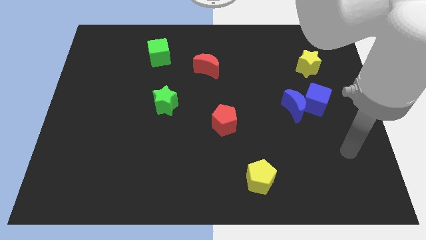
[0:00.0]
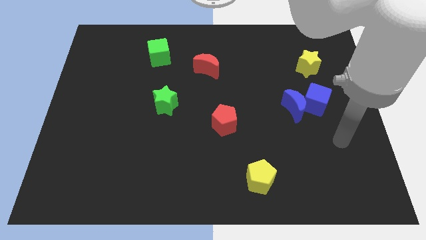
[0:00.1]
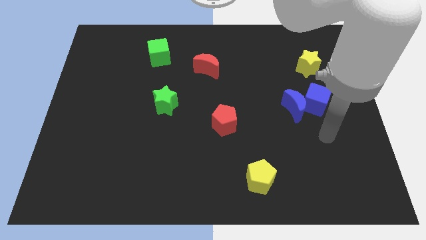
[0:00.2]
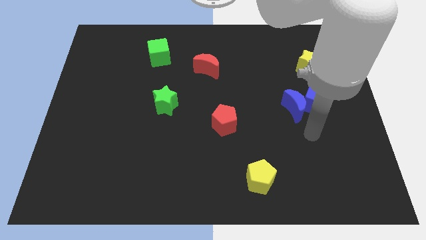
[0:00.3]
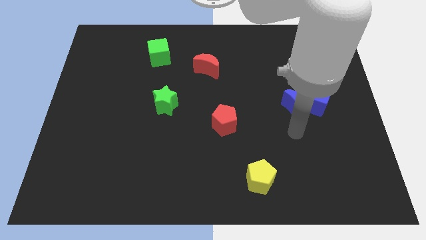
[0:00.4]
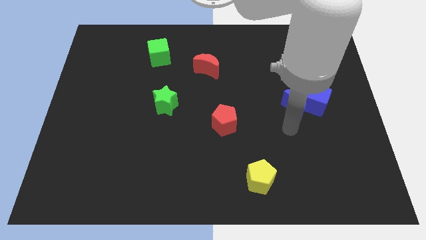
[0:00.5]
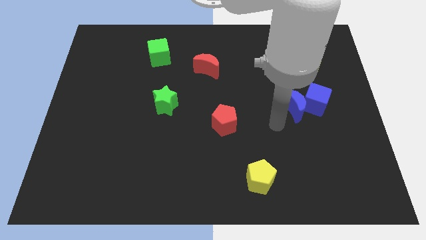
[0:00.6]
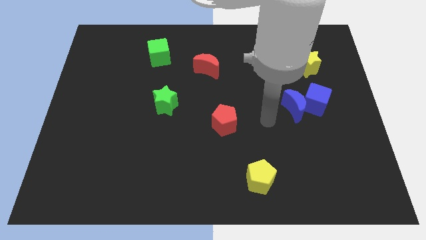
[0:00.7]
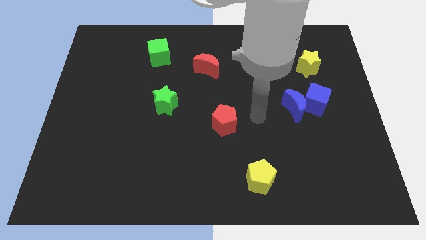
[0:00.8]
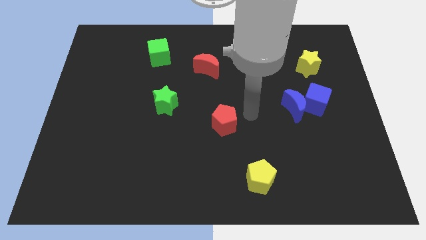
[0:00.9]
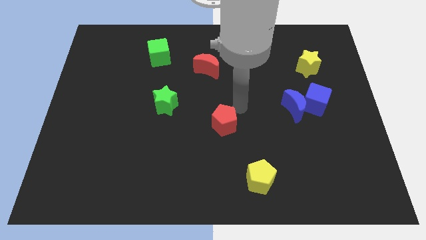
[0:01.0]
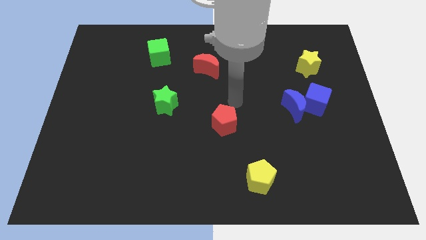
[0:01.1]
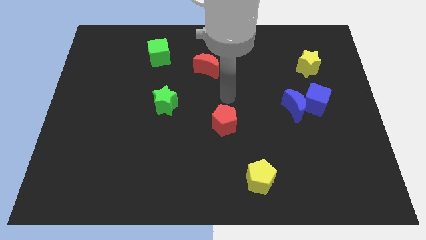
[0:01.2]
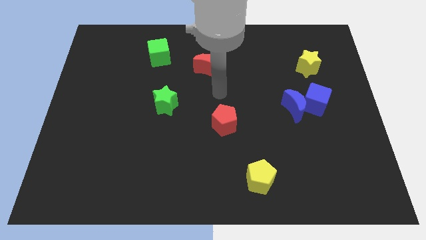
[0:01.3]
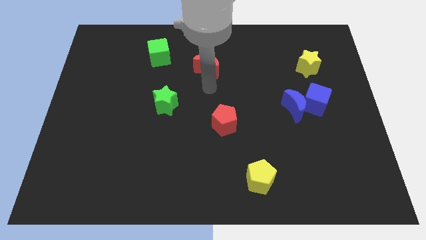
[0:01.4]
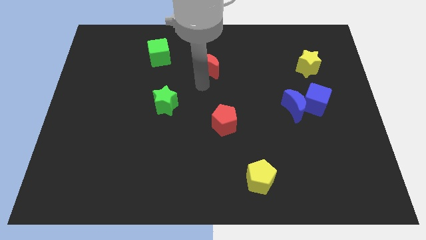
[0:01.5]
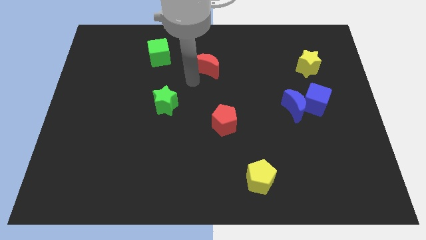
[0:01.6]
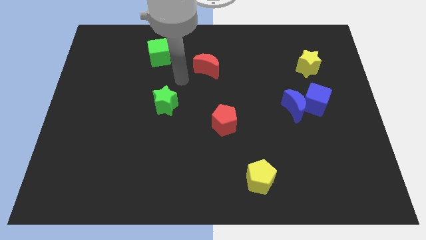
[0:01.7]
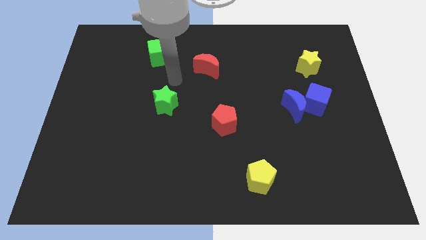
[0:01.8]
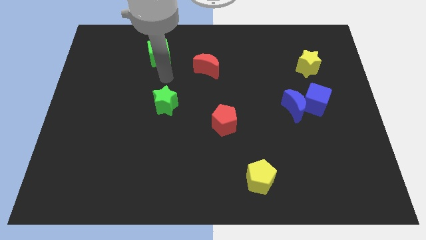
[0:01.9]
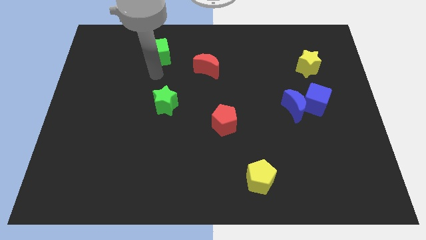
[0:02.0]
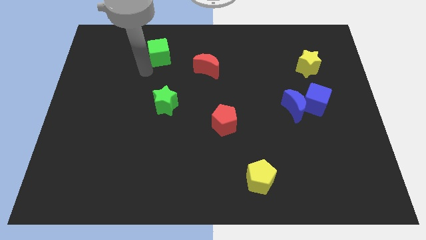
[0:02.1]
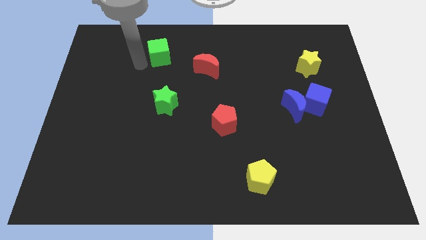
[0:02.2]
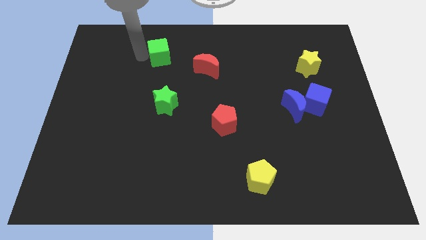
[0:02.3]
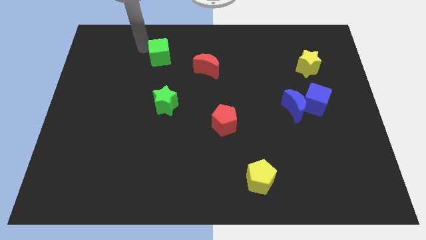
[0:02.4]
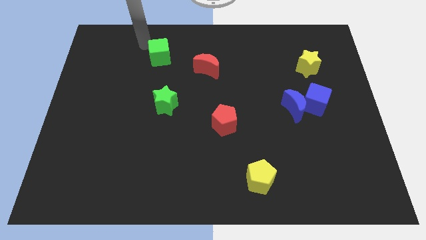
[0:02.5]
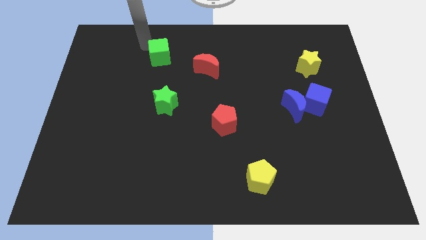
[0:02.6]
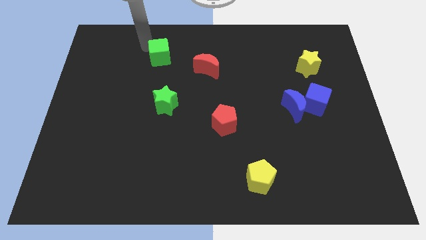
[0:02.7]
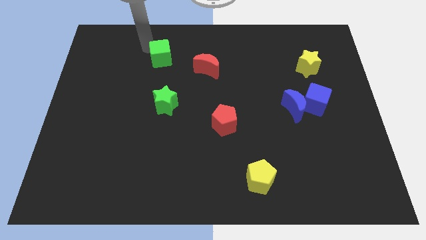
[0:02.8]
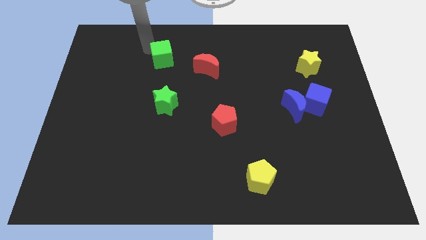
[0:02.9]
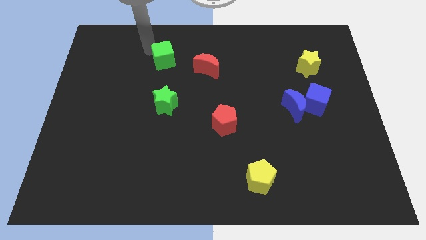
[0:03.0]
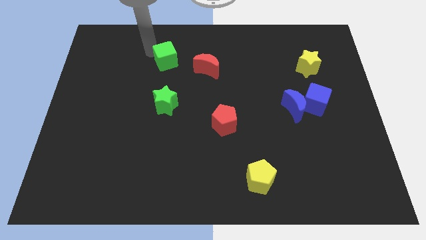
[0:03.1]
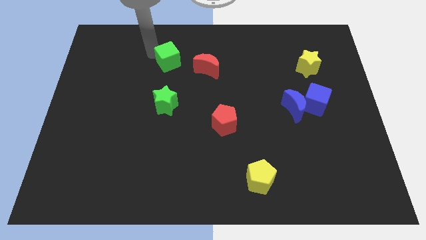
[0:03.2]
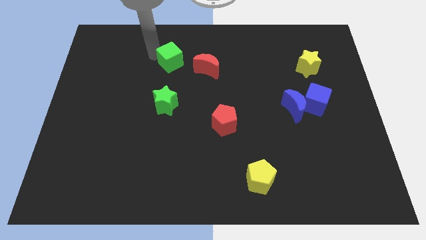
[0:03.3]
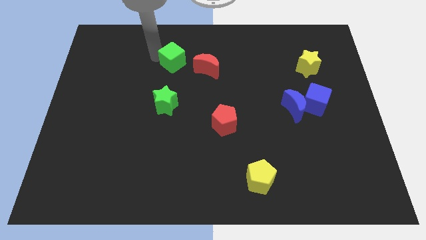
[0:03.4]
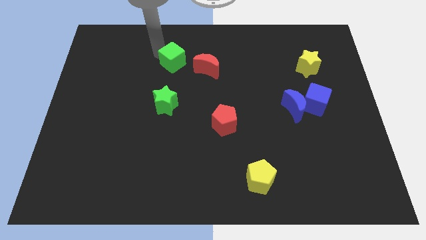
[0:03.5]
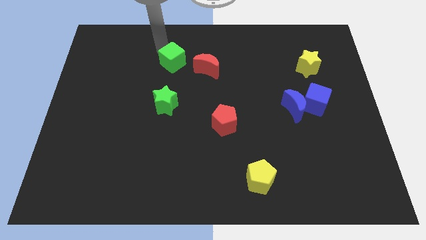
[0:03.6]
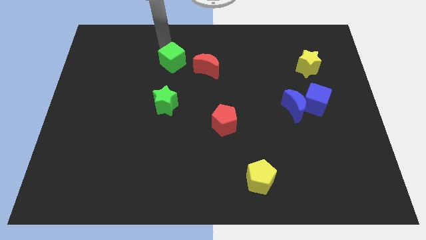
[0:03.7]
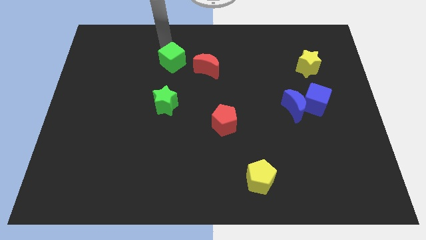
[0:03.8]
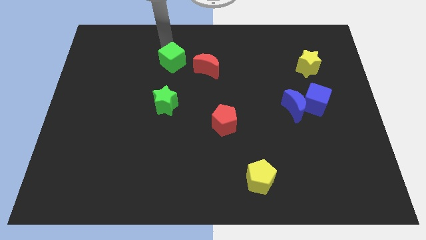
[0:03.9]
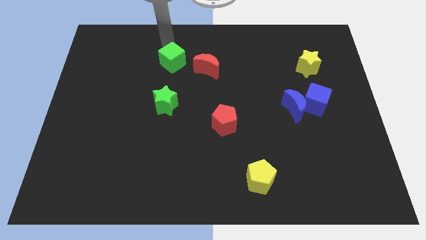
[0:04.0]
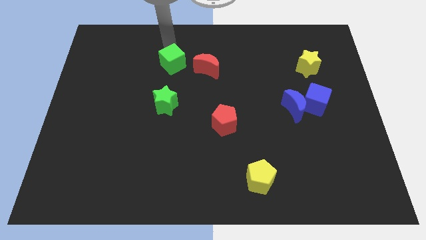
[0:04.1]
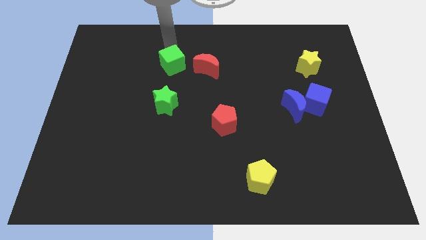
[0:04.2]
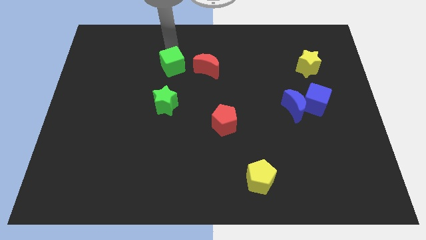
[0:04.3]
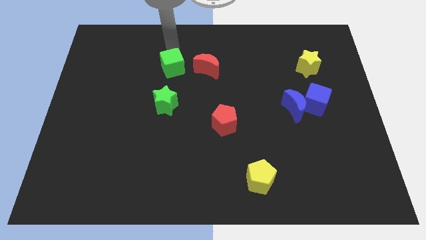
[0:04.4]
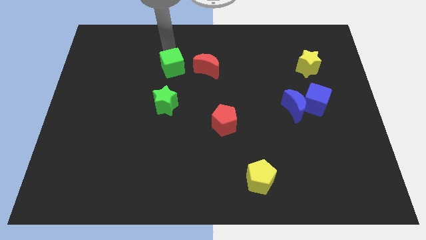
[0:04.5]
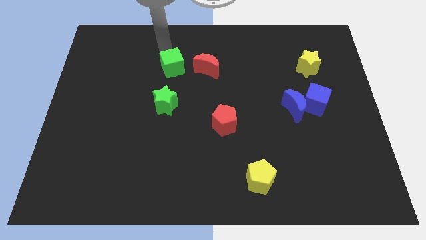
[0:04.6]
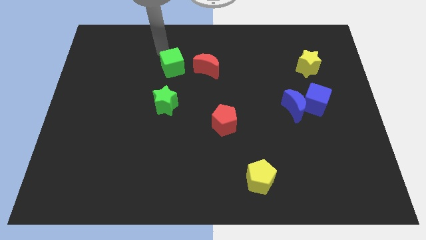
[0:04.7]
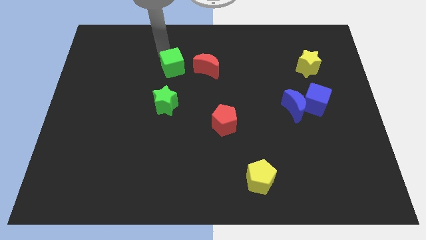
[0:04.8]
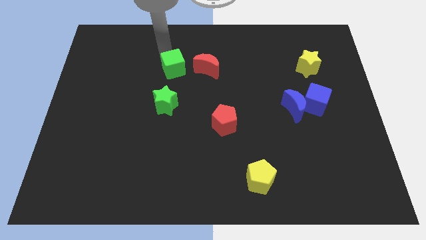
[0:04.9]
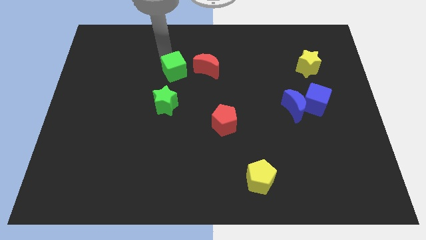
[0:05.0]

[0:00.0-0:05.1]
push the green cube slightly diagonally downwards and right

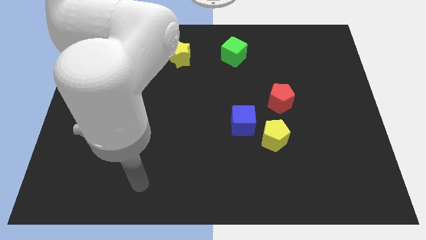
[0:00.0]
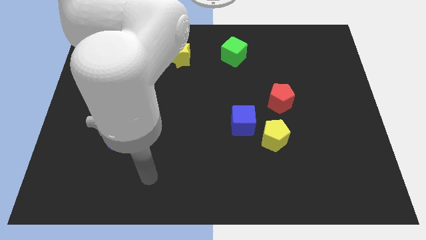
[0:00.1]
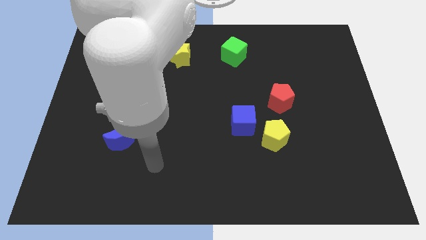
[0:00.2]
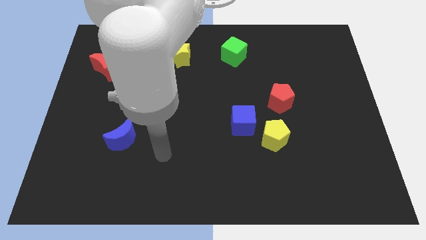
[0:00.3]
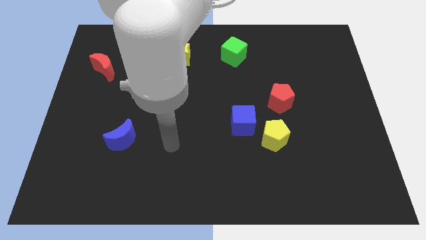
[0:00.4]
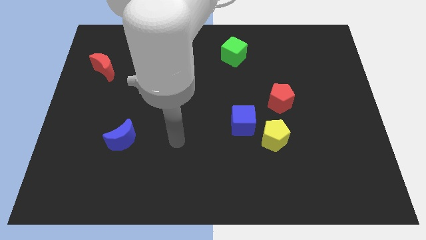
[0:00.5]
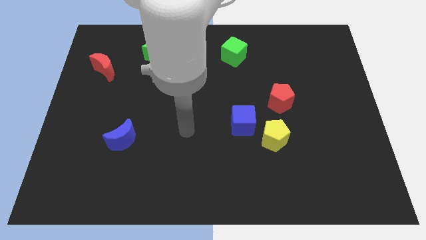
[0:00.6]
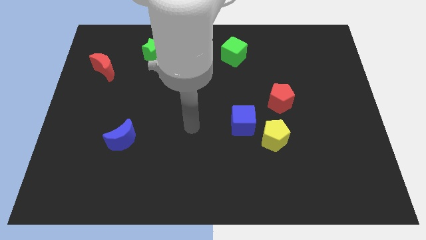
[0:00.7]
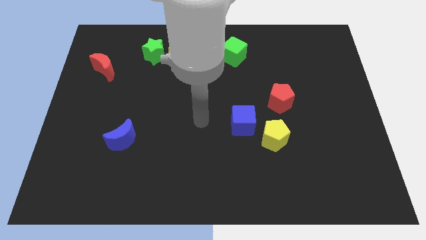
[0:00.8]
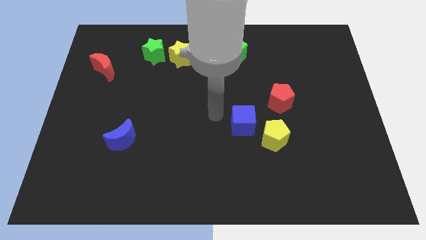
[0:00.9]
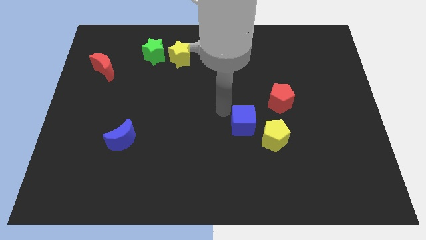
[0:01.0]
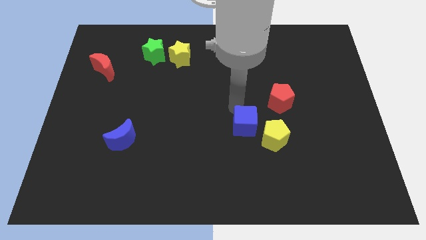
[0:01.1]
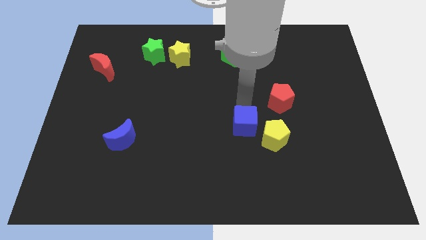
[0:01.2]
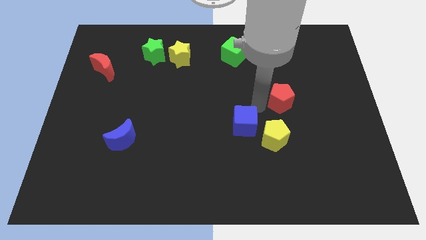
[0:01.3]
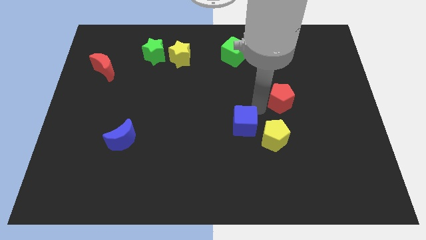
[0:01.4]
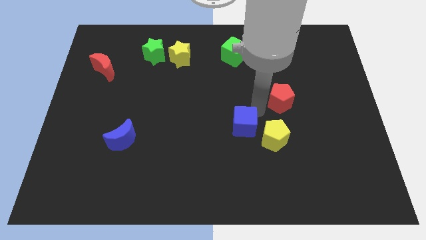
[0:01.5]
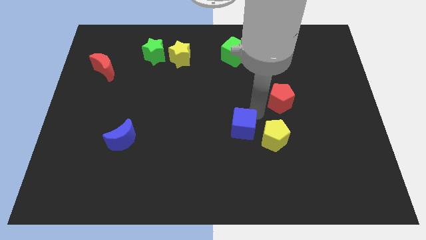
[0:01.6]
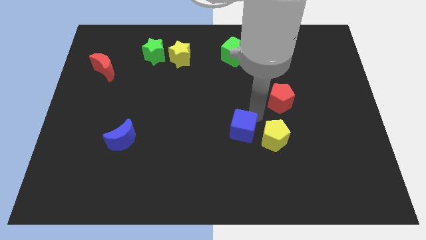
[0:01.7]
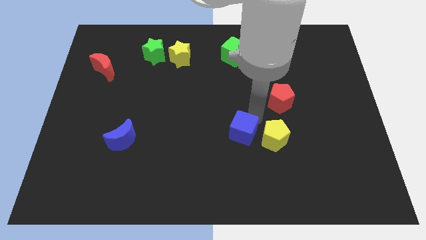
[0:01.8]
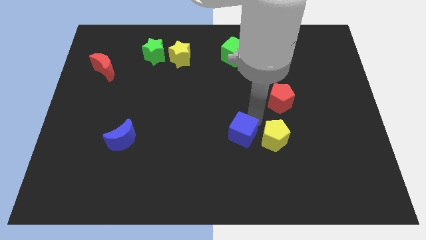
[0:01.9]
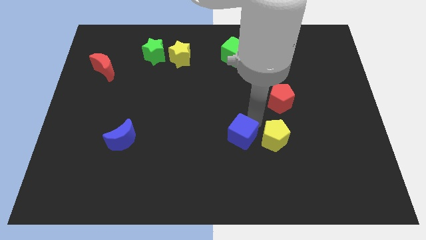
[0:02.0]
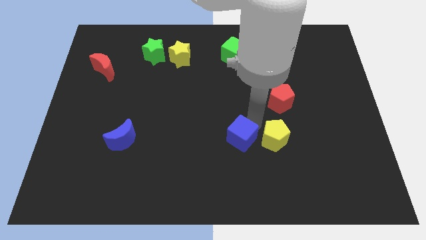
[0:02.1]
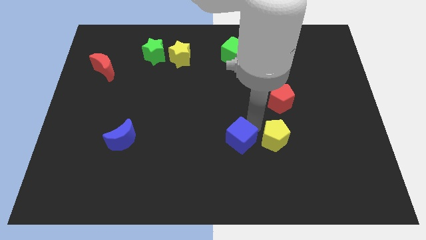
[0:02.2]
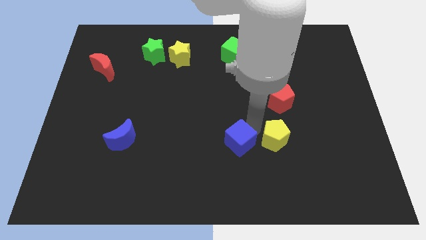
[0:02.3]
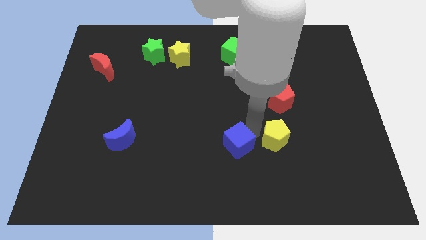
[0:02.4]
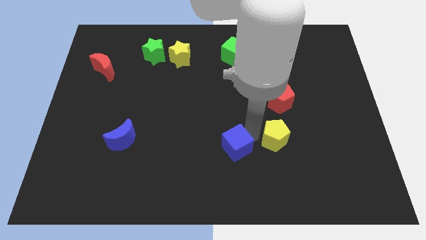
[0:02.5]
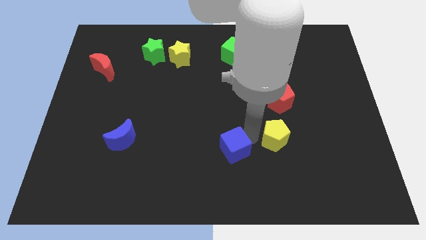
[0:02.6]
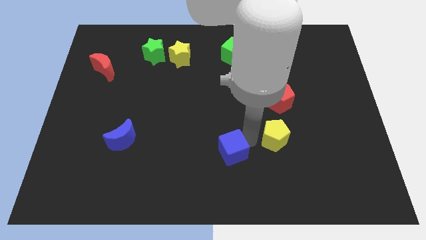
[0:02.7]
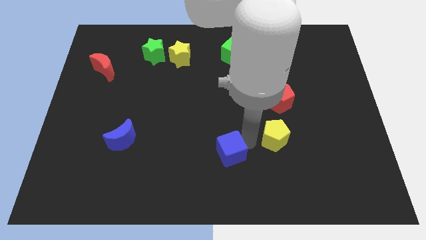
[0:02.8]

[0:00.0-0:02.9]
slightly move the blue cube downwards and left diagonally
